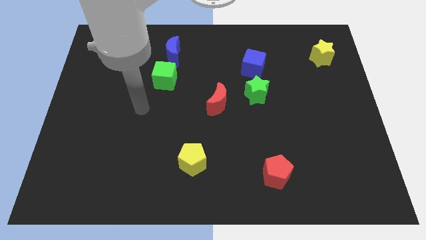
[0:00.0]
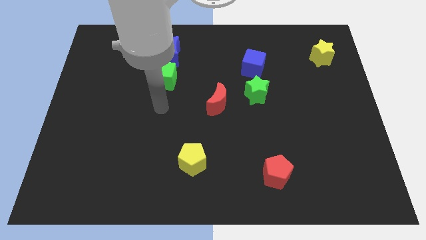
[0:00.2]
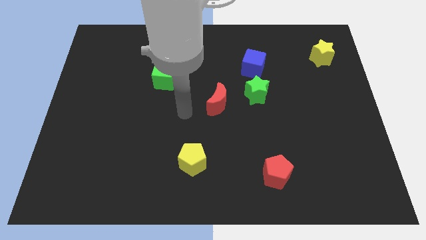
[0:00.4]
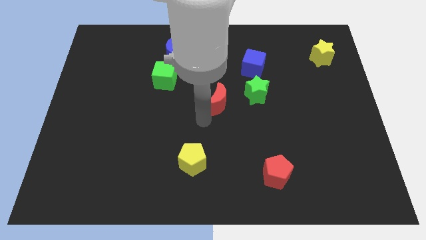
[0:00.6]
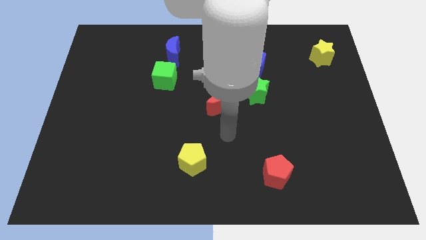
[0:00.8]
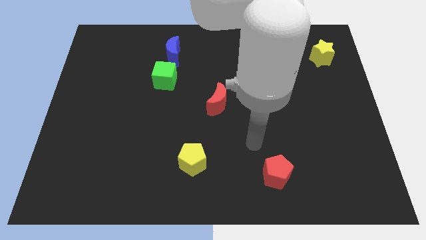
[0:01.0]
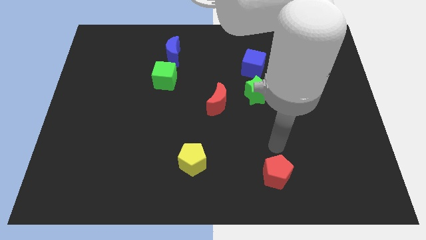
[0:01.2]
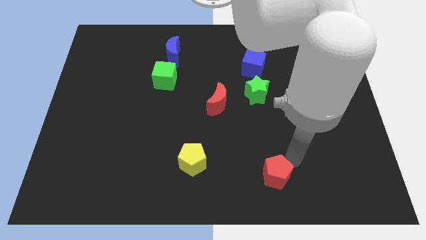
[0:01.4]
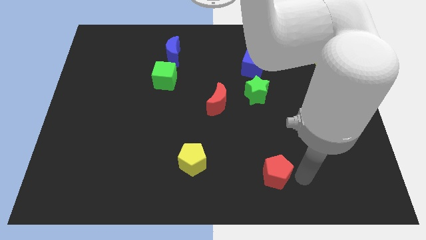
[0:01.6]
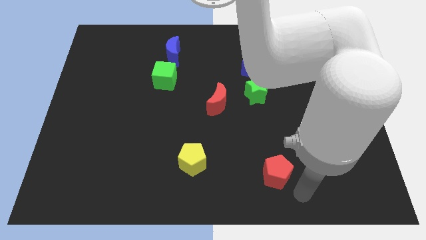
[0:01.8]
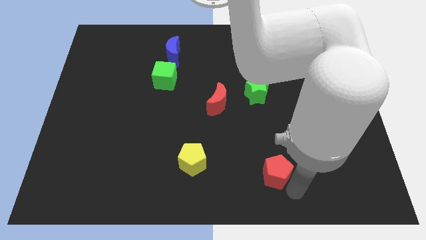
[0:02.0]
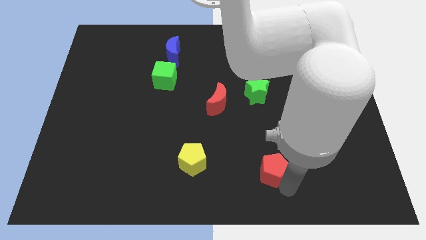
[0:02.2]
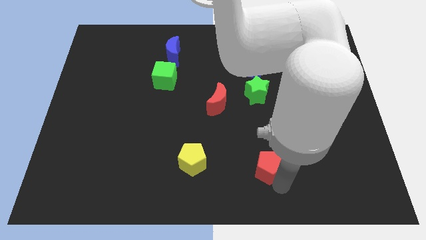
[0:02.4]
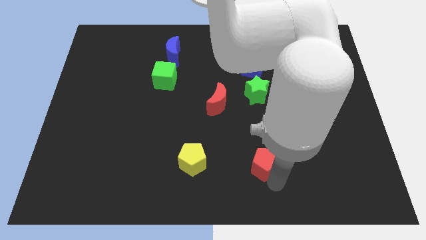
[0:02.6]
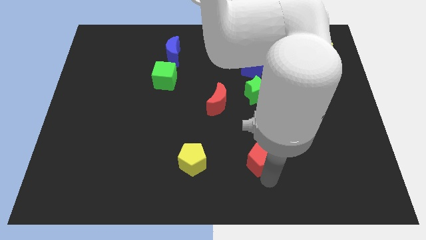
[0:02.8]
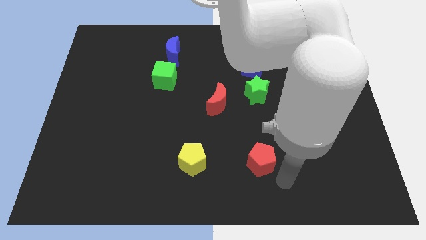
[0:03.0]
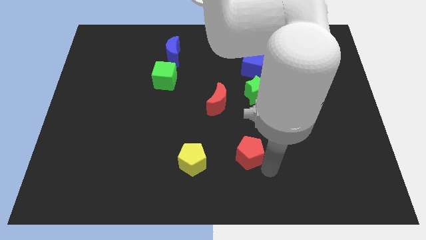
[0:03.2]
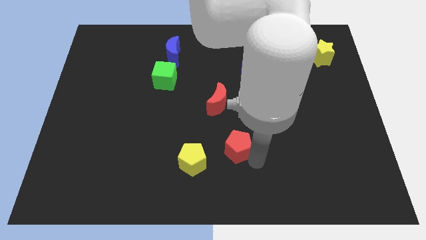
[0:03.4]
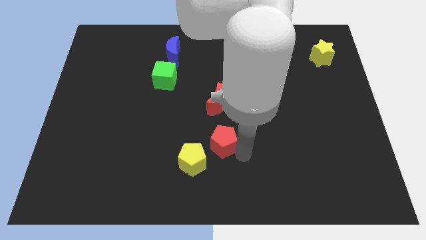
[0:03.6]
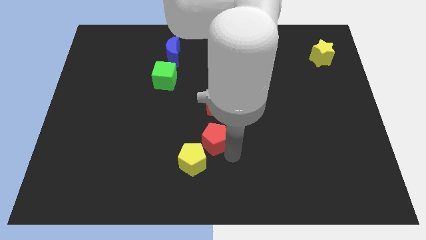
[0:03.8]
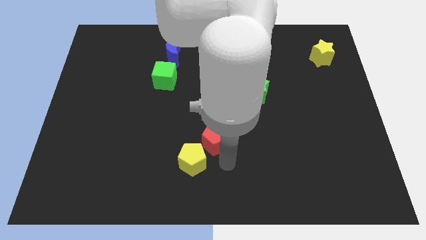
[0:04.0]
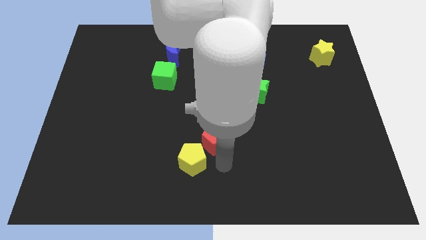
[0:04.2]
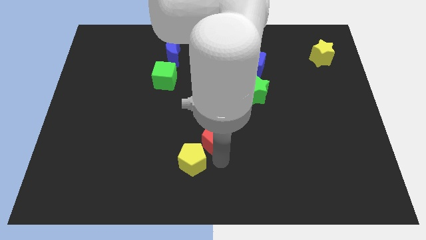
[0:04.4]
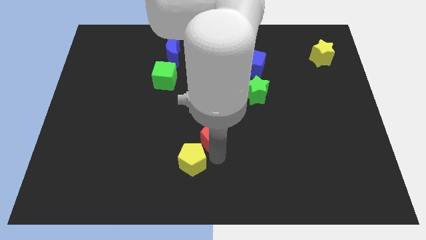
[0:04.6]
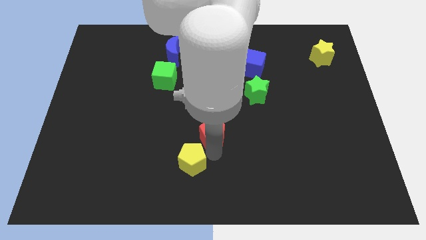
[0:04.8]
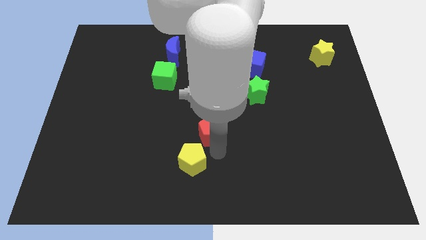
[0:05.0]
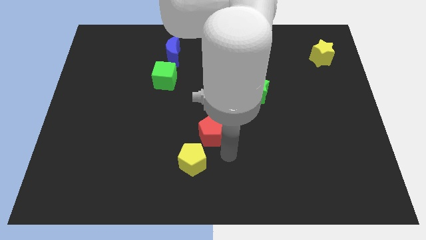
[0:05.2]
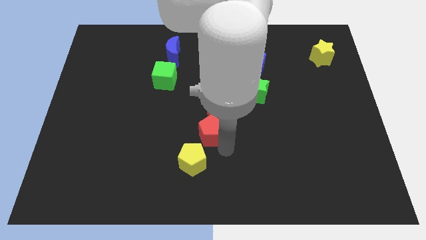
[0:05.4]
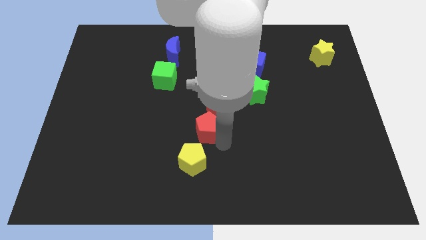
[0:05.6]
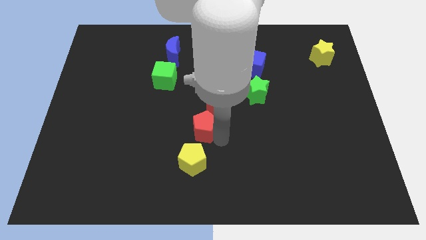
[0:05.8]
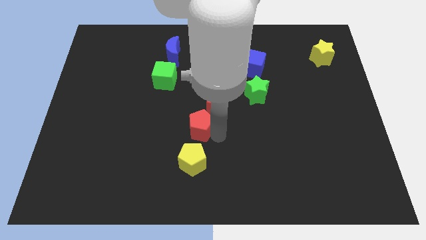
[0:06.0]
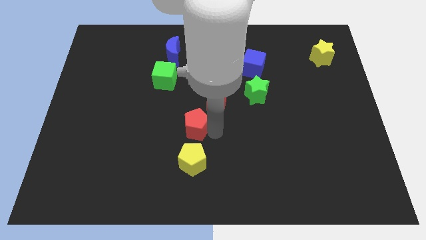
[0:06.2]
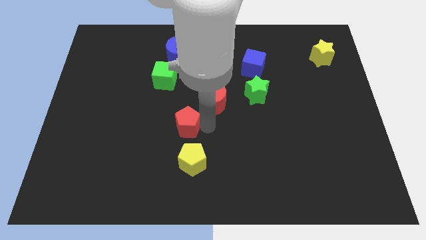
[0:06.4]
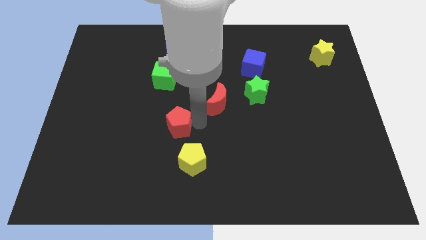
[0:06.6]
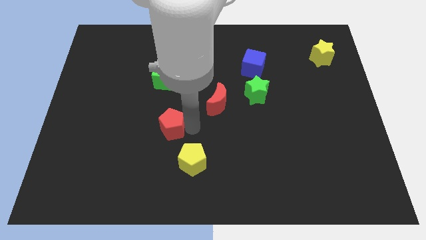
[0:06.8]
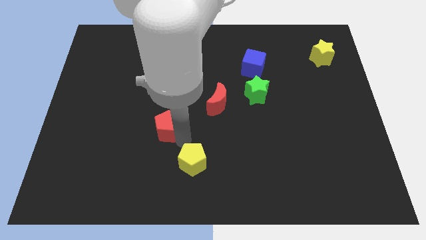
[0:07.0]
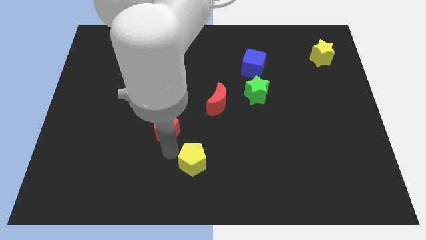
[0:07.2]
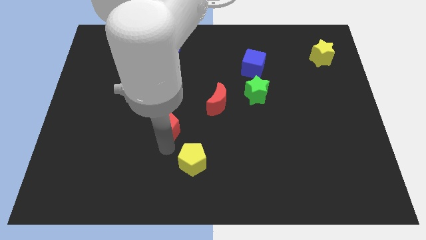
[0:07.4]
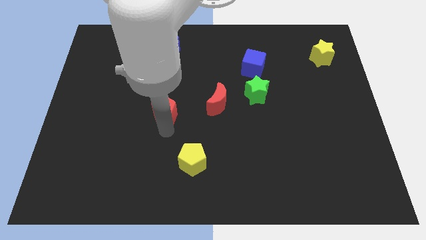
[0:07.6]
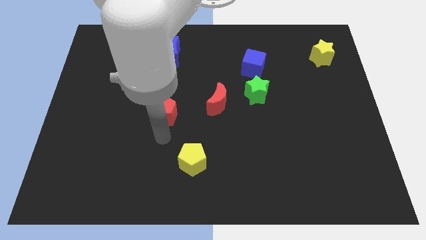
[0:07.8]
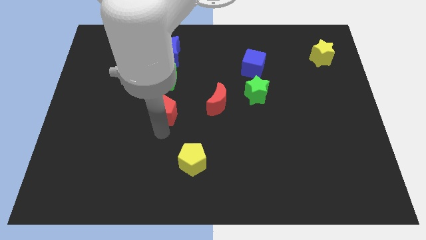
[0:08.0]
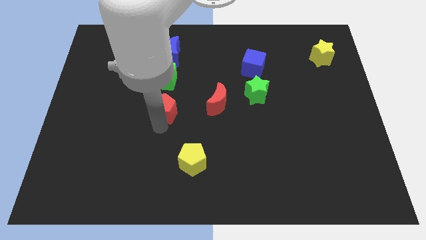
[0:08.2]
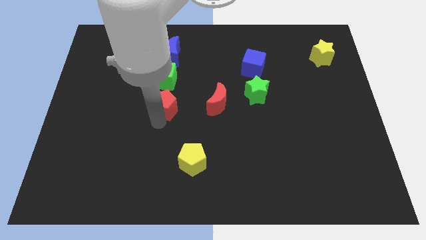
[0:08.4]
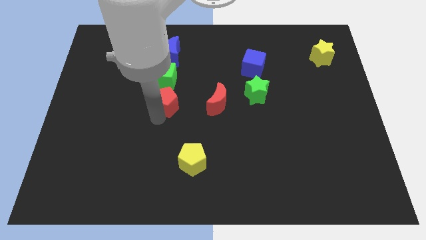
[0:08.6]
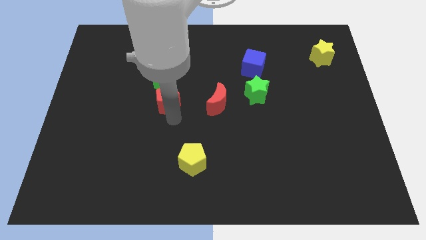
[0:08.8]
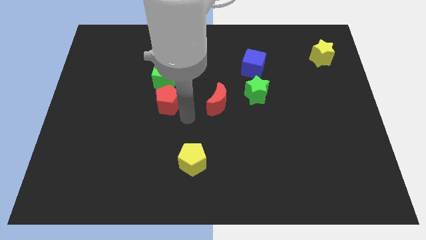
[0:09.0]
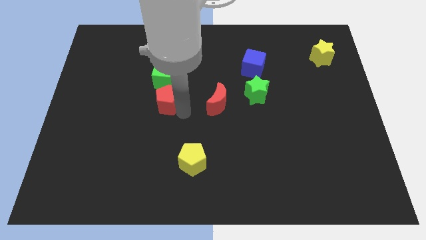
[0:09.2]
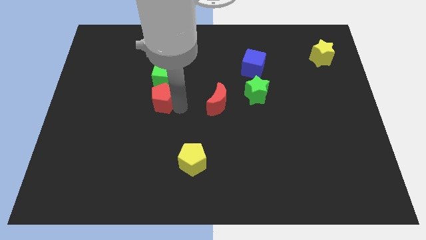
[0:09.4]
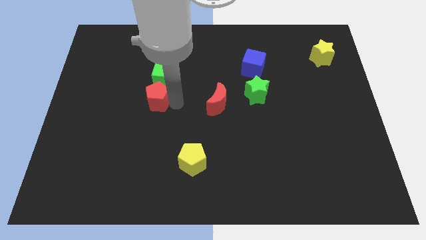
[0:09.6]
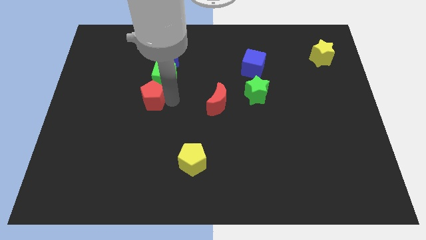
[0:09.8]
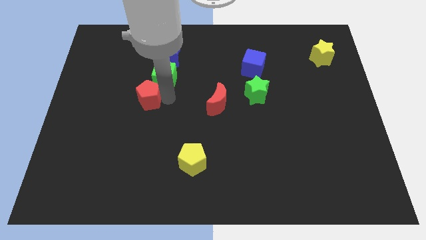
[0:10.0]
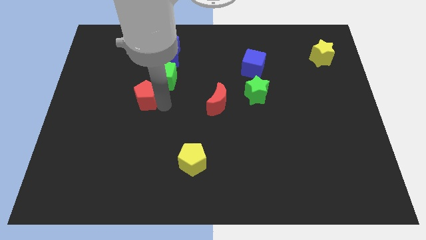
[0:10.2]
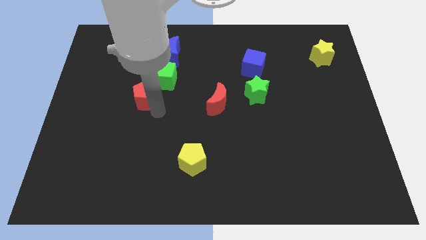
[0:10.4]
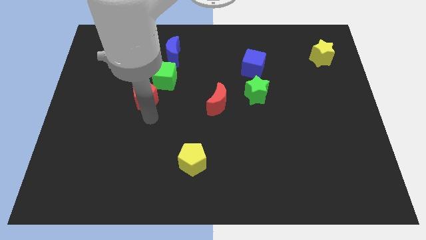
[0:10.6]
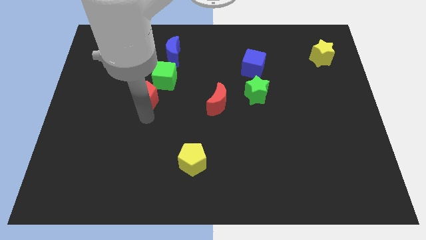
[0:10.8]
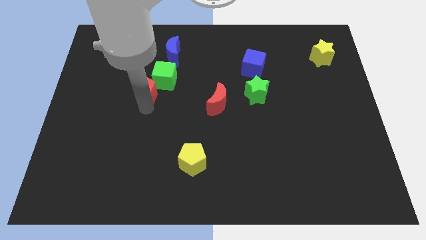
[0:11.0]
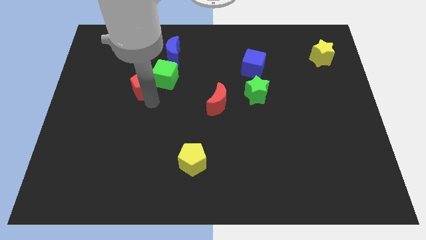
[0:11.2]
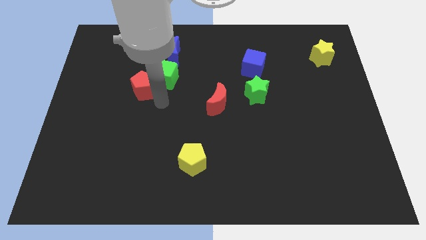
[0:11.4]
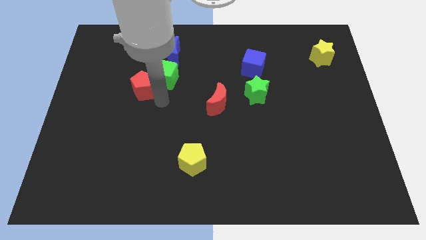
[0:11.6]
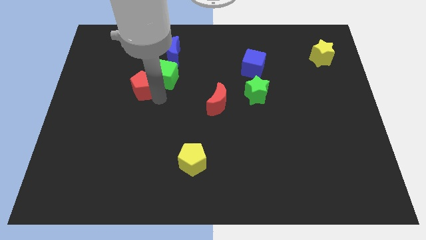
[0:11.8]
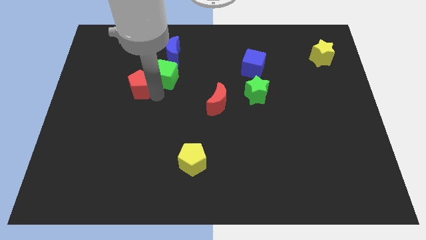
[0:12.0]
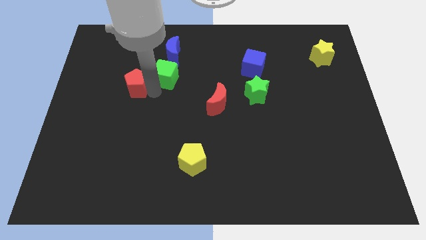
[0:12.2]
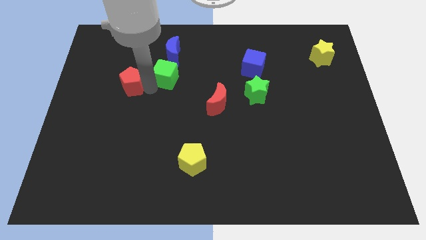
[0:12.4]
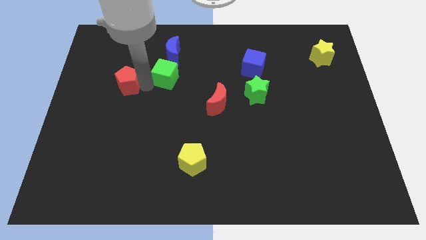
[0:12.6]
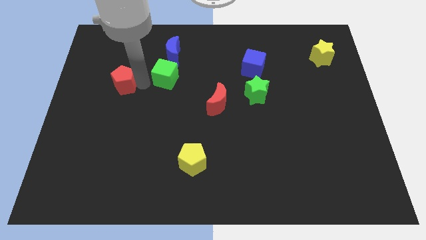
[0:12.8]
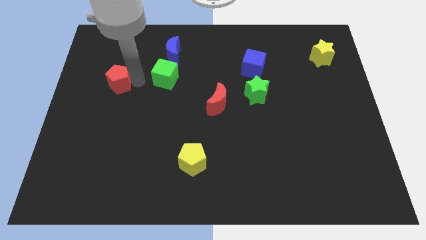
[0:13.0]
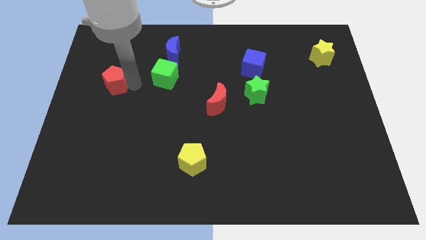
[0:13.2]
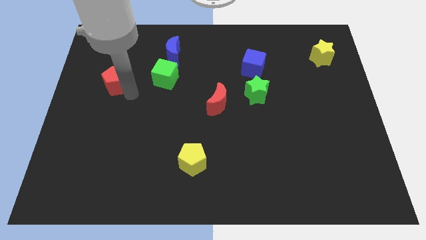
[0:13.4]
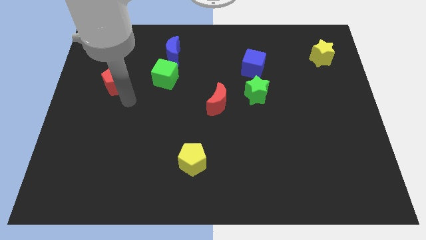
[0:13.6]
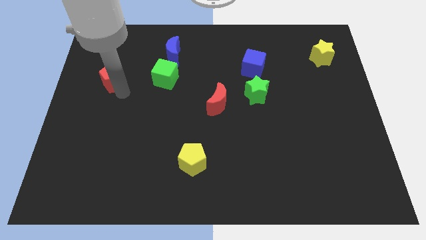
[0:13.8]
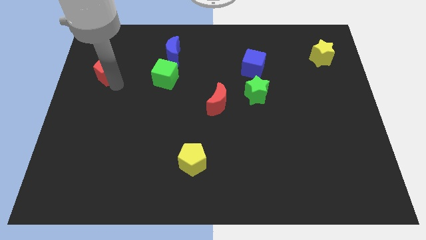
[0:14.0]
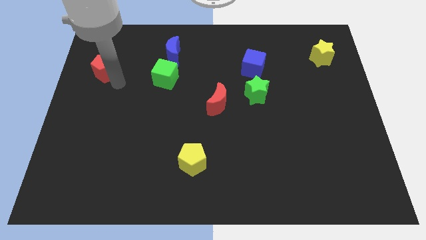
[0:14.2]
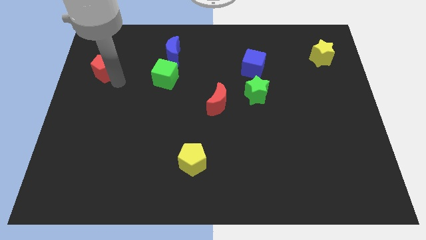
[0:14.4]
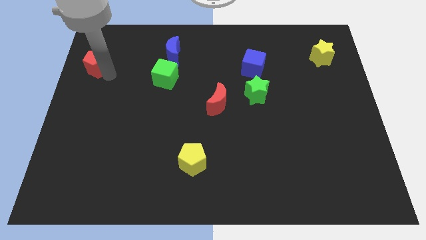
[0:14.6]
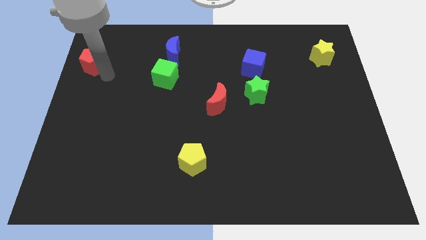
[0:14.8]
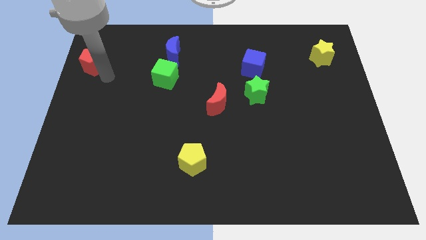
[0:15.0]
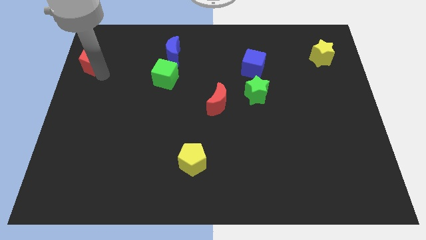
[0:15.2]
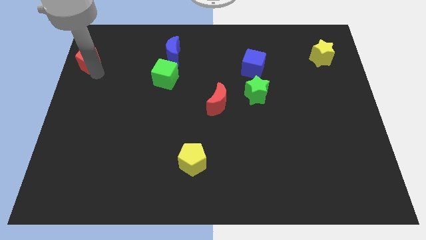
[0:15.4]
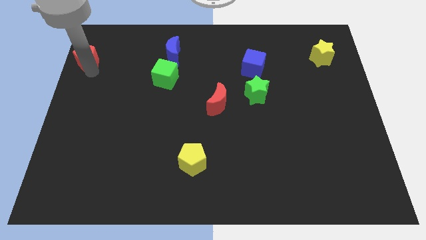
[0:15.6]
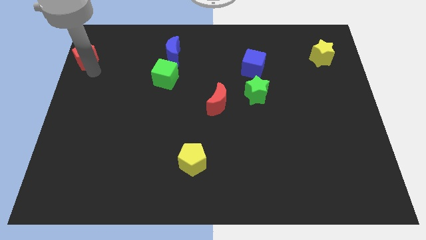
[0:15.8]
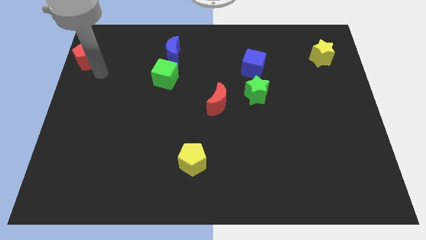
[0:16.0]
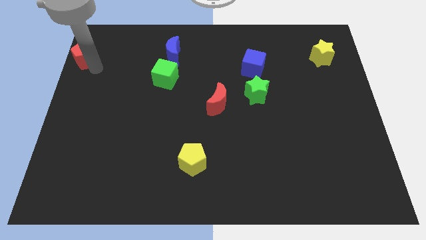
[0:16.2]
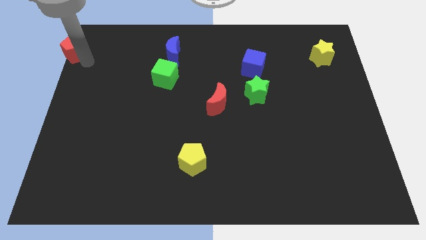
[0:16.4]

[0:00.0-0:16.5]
put the red pentagon to the top left of the board
